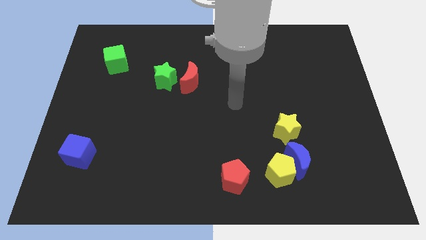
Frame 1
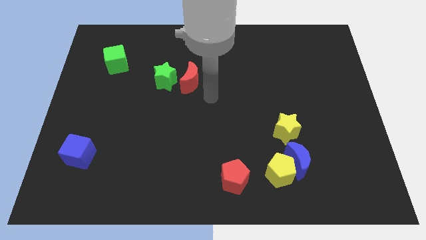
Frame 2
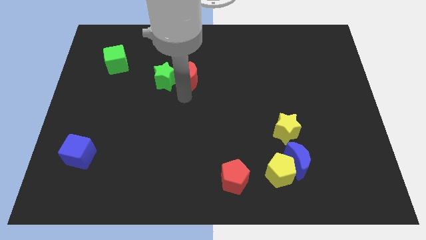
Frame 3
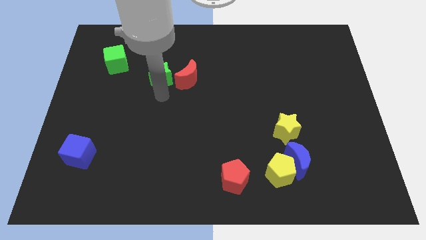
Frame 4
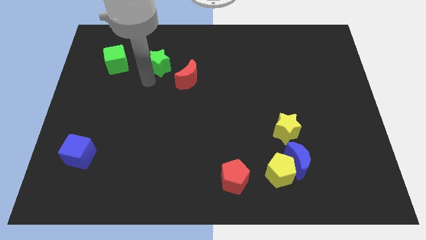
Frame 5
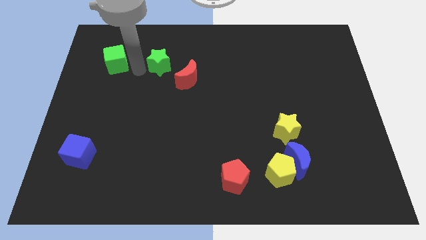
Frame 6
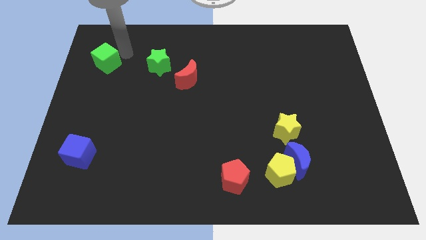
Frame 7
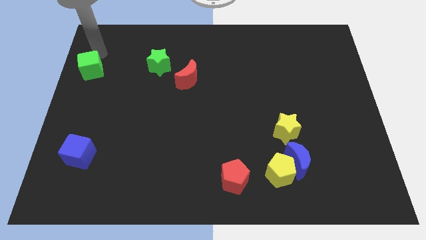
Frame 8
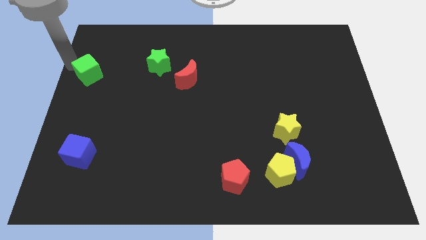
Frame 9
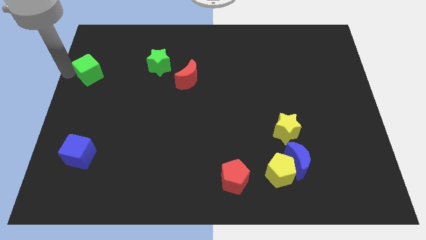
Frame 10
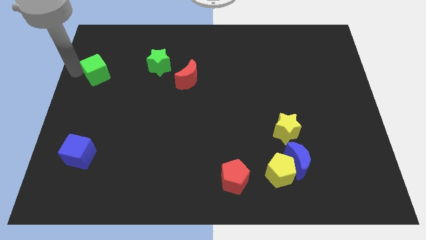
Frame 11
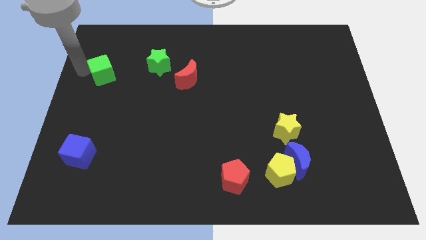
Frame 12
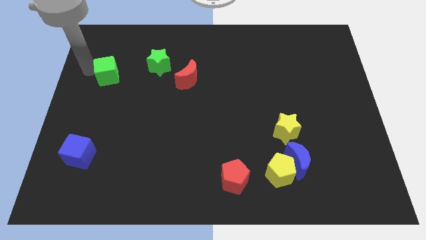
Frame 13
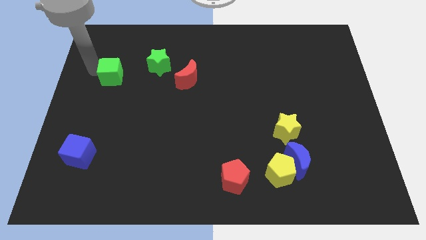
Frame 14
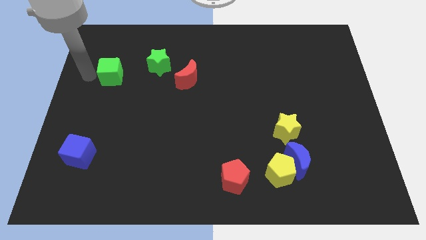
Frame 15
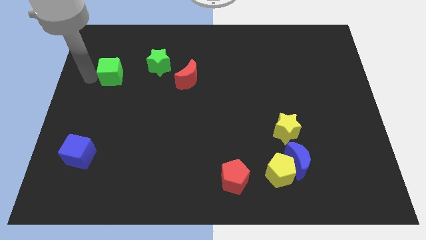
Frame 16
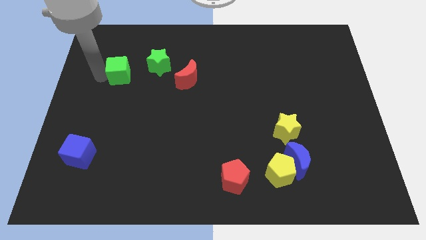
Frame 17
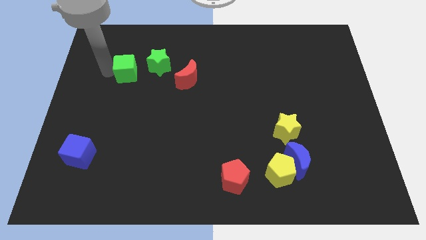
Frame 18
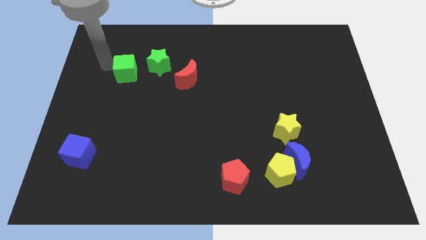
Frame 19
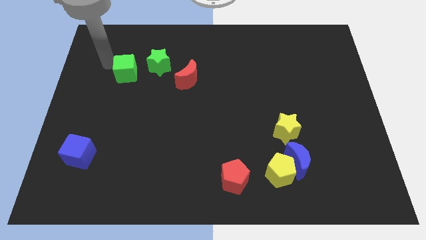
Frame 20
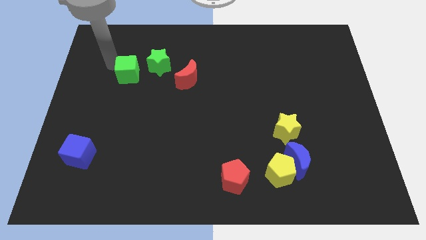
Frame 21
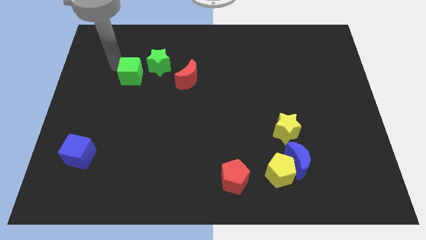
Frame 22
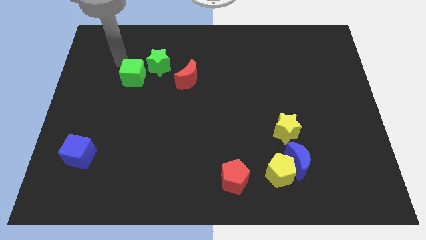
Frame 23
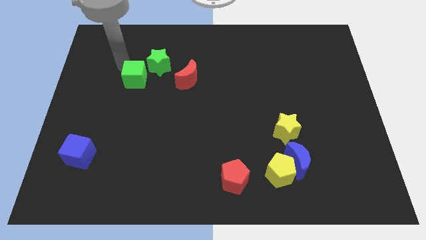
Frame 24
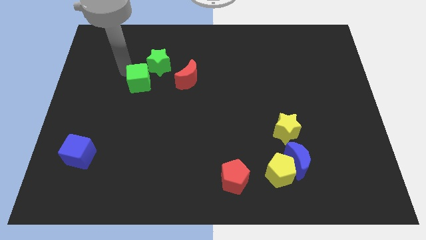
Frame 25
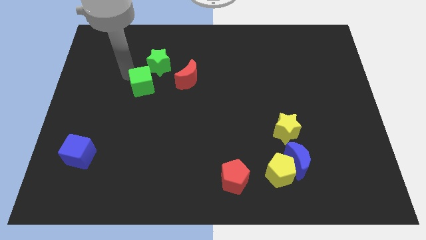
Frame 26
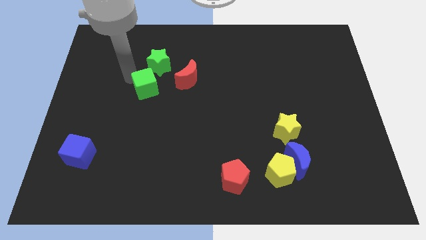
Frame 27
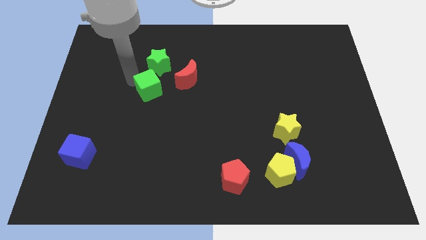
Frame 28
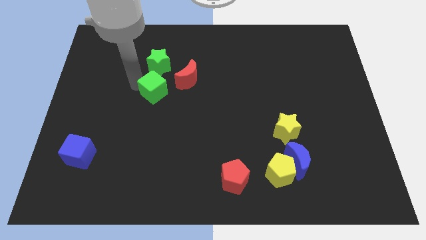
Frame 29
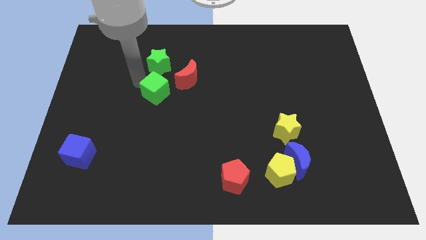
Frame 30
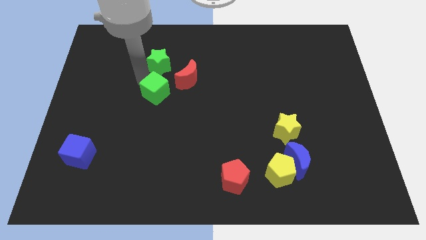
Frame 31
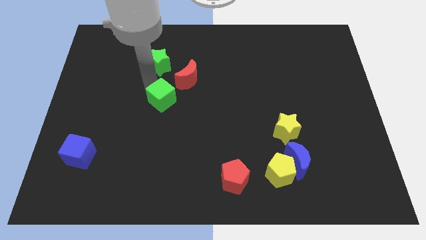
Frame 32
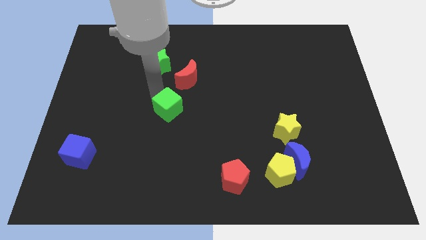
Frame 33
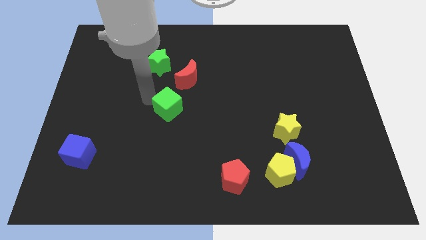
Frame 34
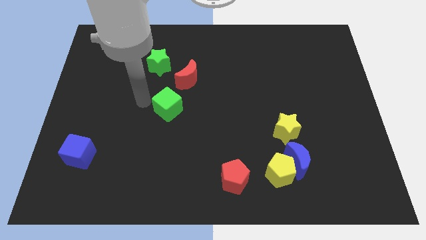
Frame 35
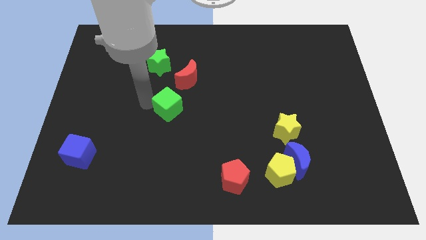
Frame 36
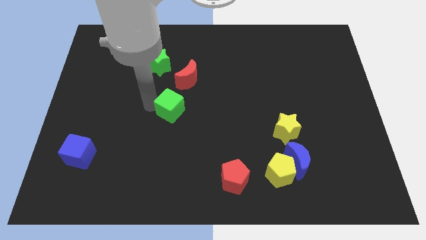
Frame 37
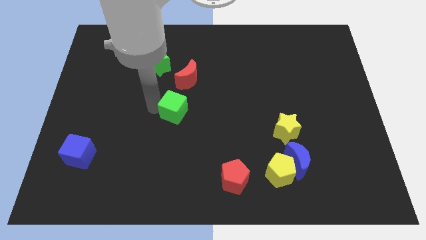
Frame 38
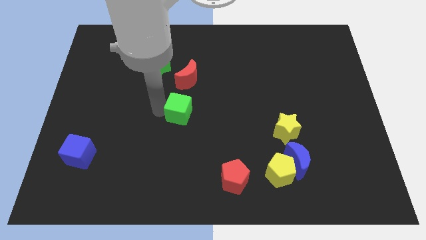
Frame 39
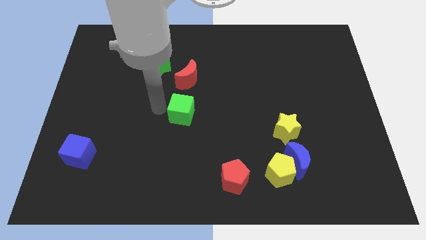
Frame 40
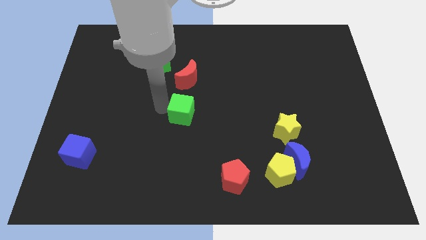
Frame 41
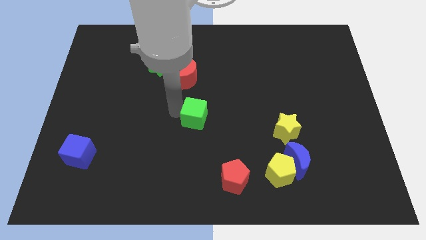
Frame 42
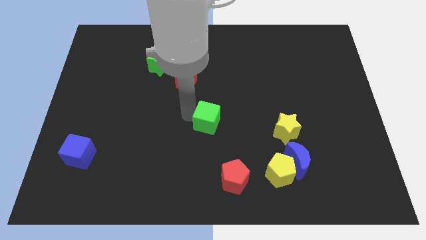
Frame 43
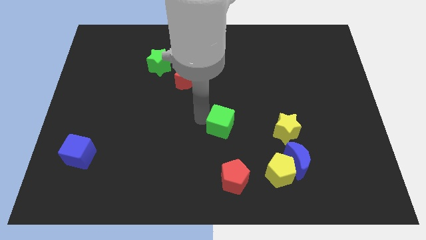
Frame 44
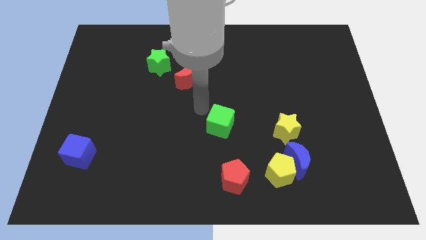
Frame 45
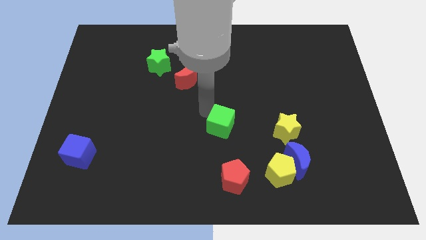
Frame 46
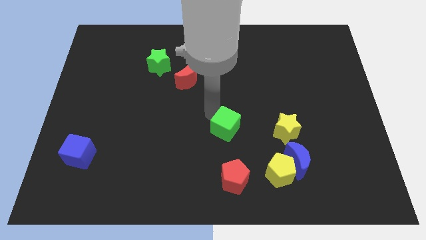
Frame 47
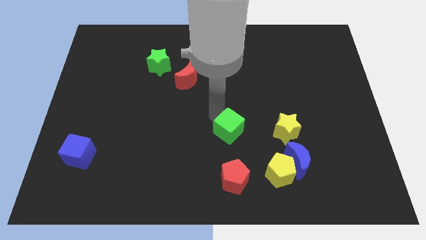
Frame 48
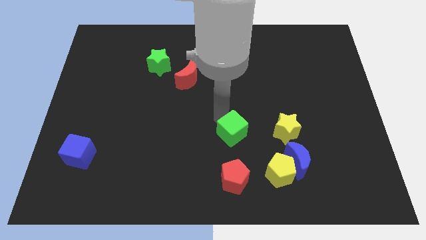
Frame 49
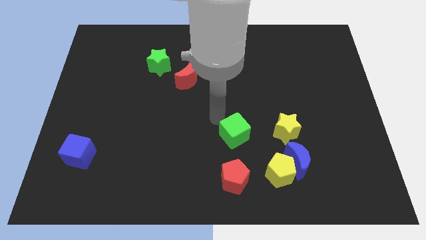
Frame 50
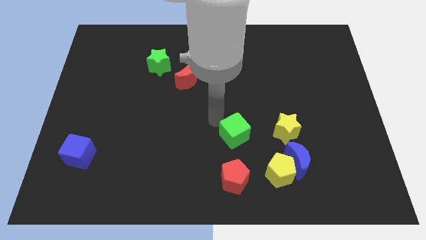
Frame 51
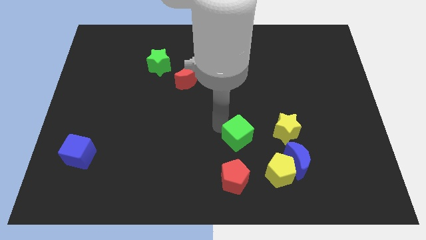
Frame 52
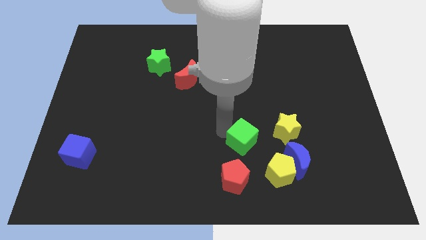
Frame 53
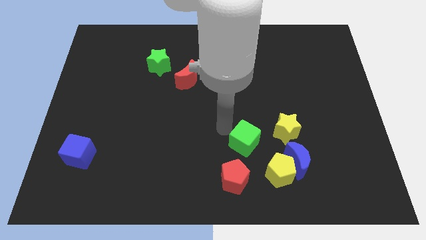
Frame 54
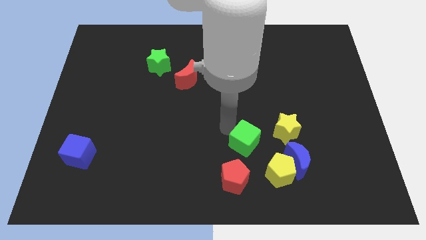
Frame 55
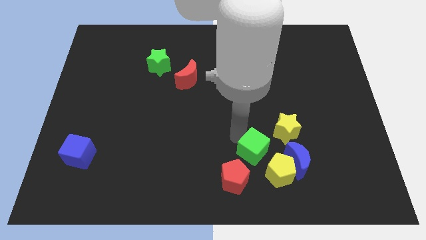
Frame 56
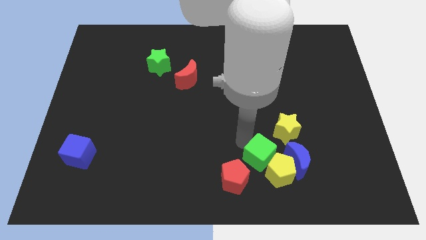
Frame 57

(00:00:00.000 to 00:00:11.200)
push the green cube close to the yellow pentagon
